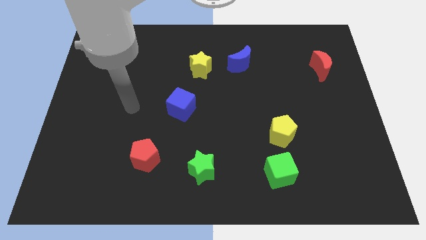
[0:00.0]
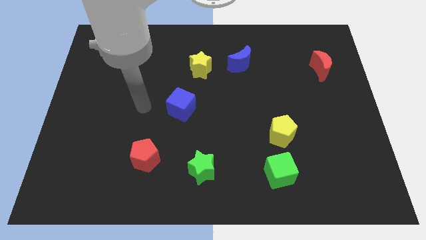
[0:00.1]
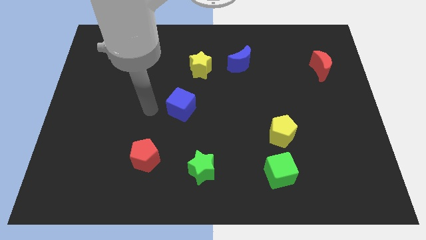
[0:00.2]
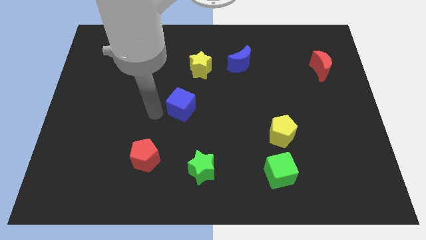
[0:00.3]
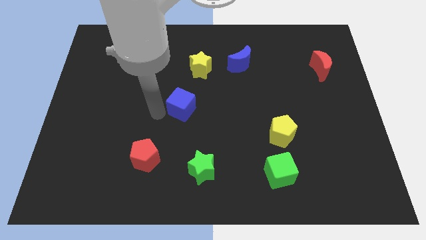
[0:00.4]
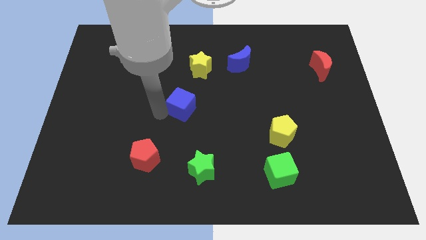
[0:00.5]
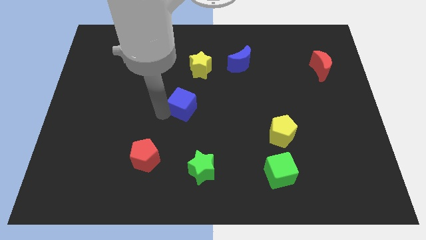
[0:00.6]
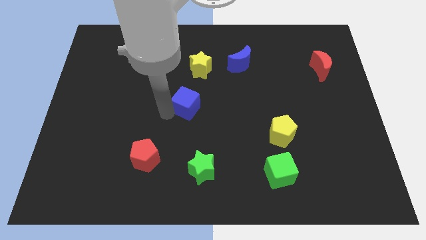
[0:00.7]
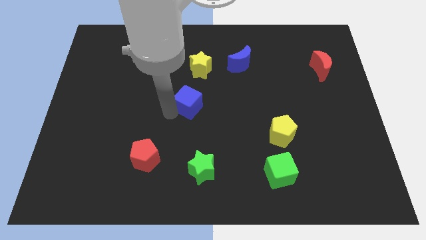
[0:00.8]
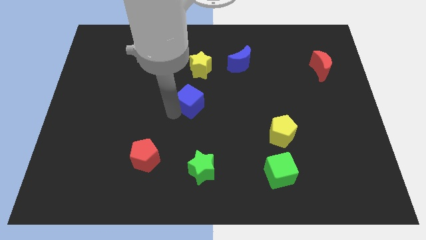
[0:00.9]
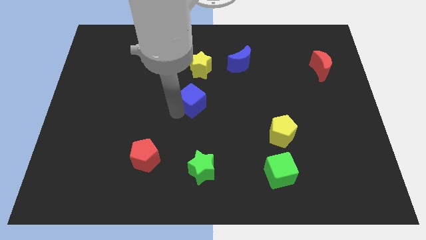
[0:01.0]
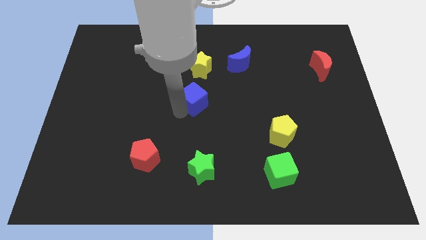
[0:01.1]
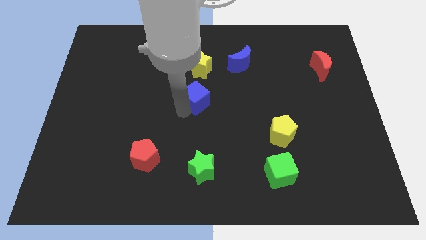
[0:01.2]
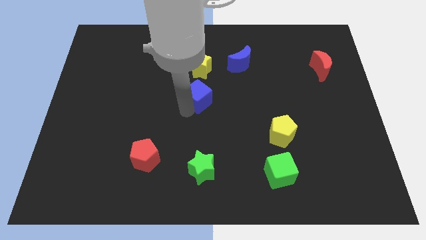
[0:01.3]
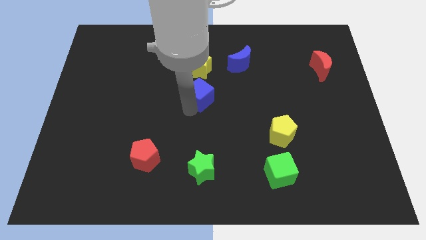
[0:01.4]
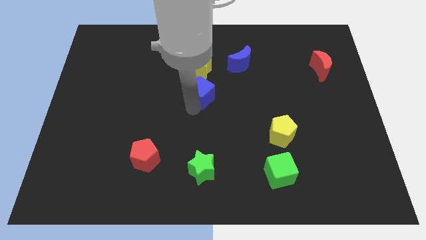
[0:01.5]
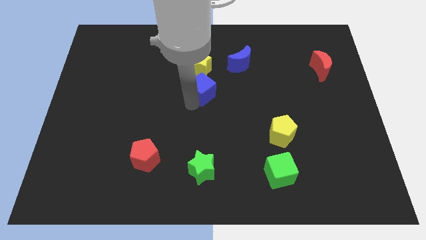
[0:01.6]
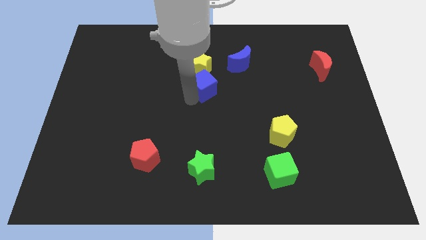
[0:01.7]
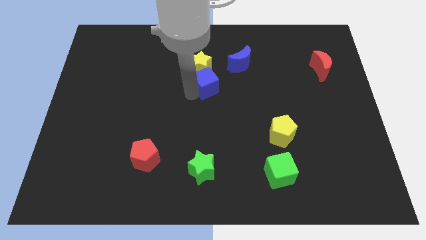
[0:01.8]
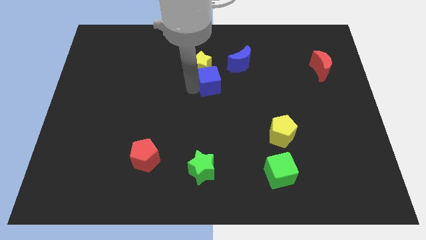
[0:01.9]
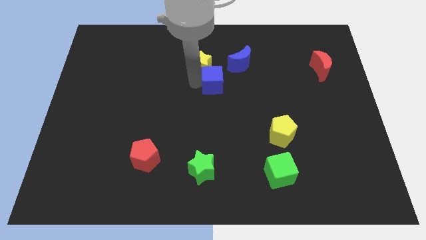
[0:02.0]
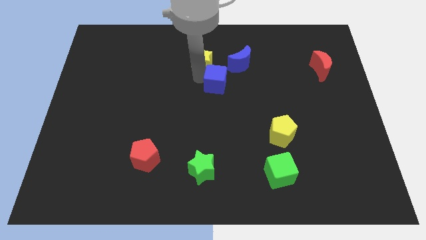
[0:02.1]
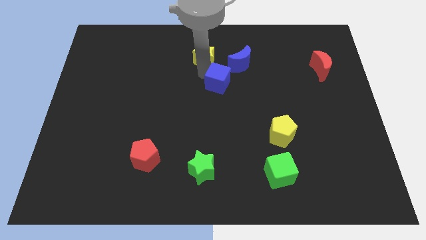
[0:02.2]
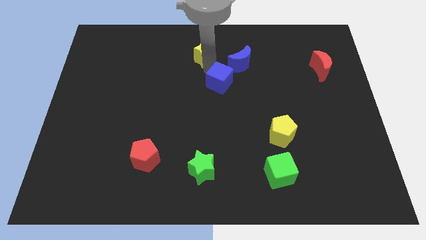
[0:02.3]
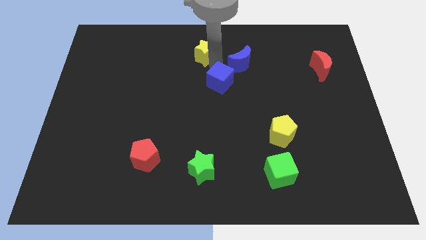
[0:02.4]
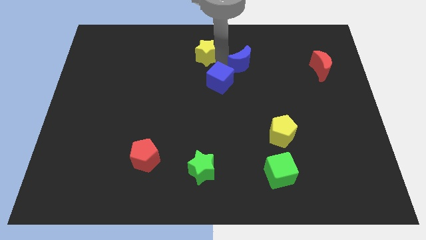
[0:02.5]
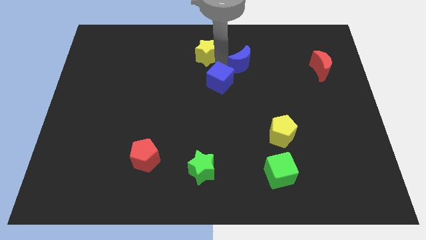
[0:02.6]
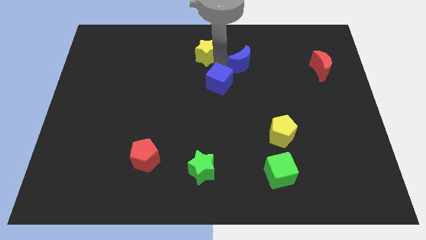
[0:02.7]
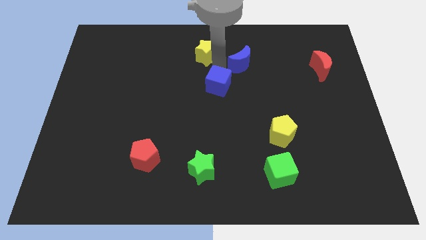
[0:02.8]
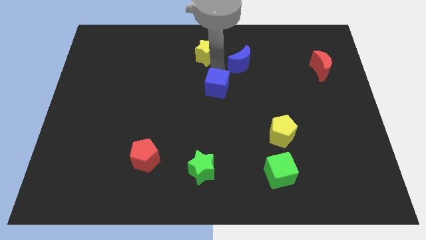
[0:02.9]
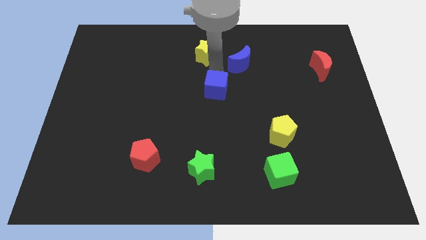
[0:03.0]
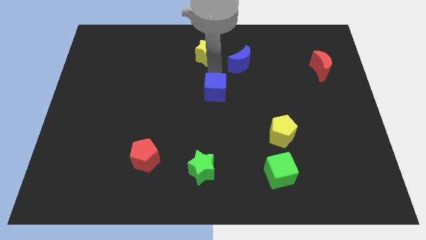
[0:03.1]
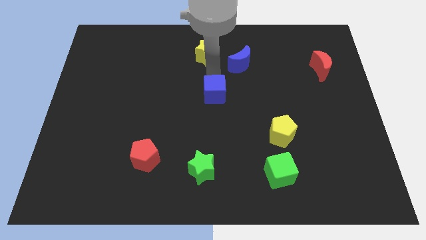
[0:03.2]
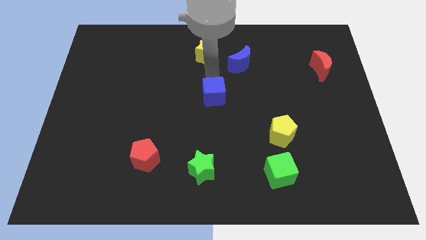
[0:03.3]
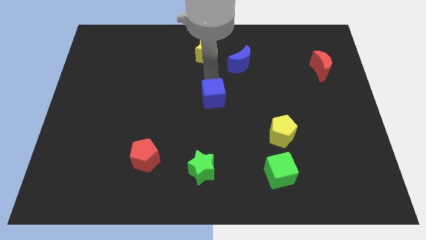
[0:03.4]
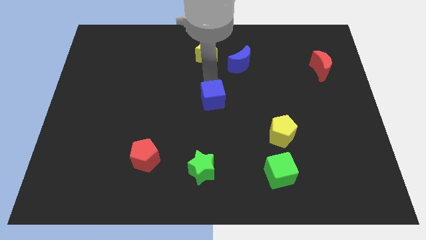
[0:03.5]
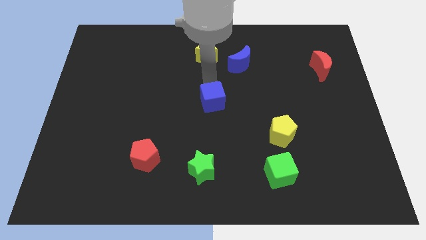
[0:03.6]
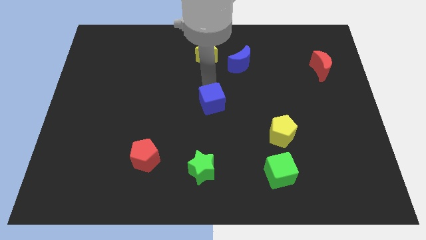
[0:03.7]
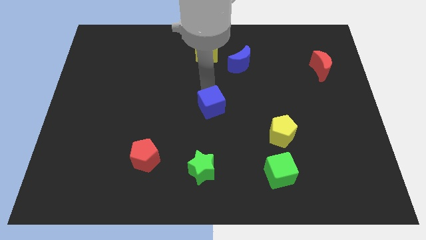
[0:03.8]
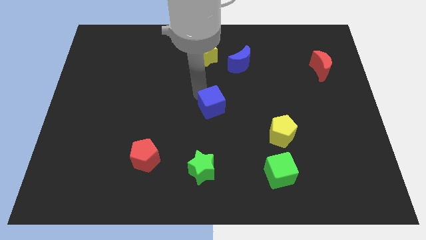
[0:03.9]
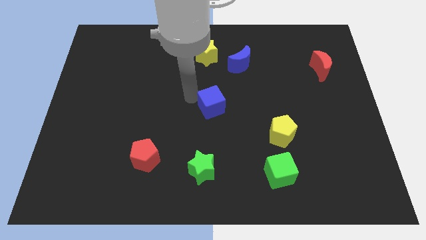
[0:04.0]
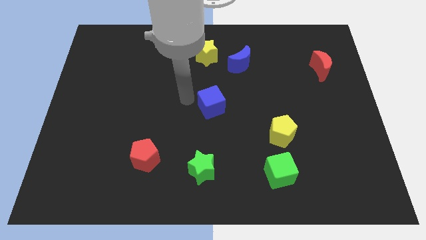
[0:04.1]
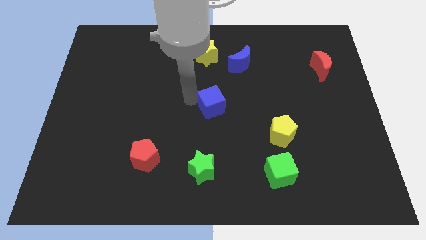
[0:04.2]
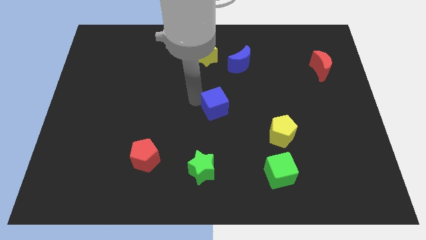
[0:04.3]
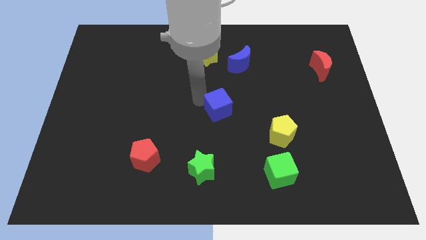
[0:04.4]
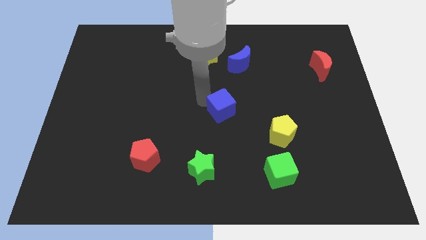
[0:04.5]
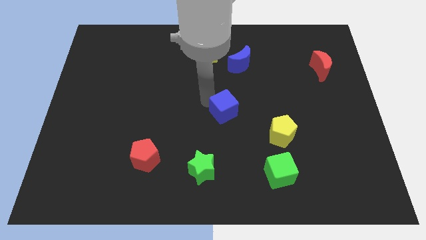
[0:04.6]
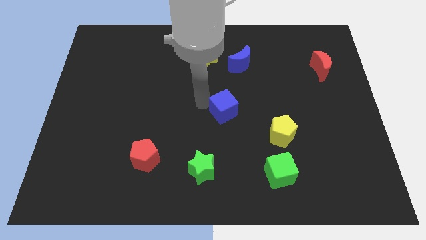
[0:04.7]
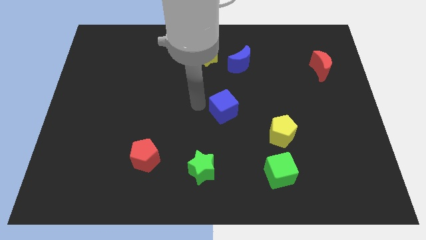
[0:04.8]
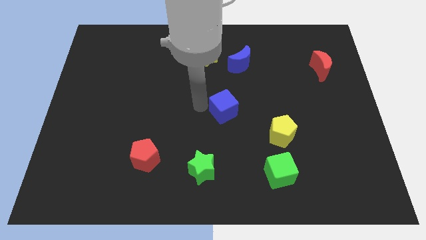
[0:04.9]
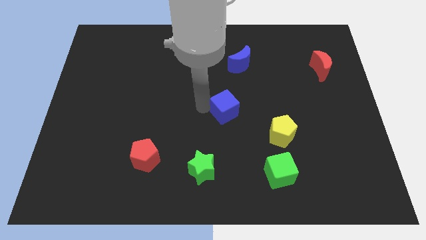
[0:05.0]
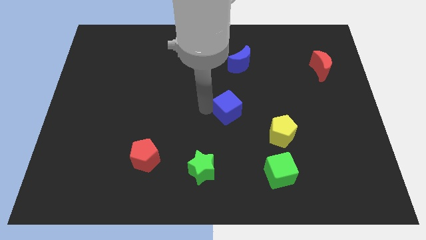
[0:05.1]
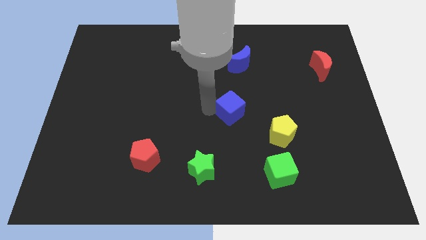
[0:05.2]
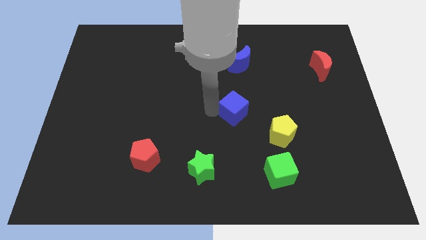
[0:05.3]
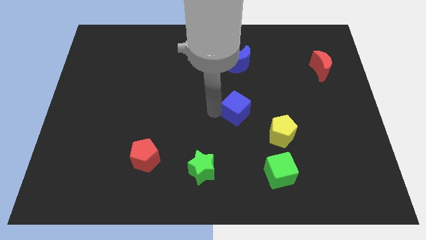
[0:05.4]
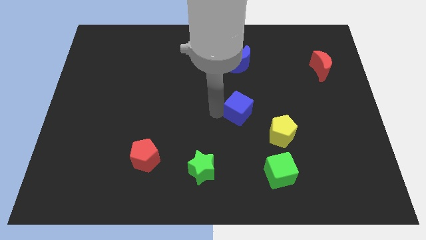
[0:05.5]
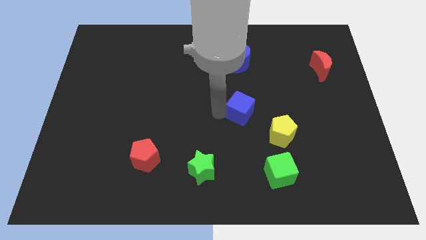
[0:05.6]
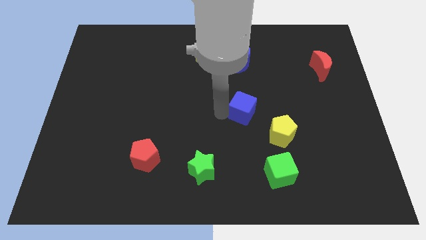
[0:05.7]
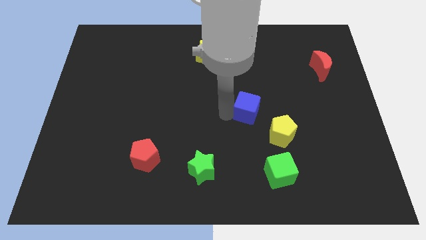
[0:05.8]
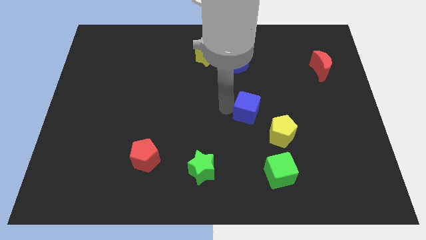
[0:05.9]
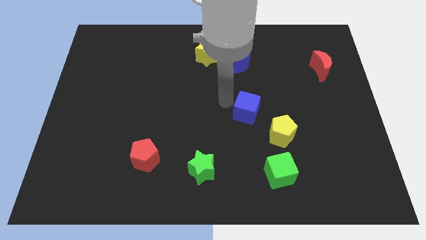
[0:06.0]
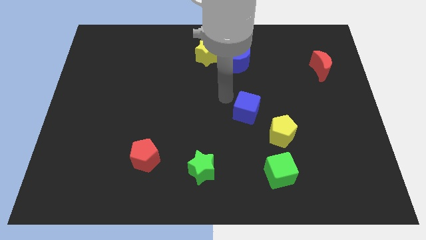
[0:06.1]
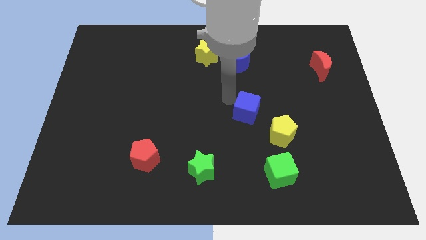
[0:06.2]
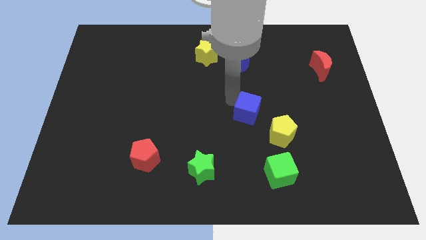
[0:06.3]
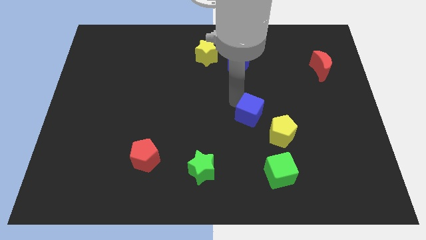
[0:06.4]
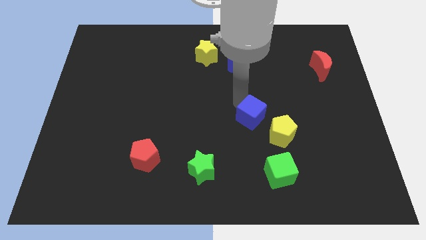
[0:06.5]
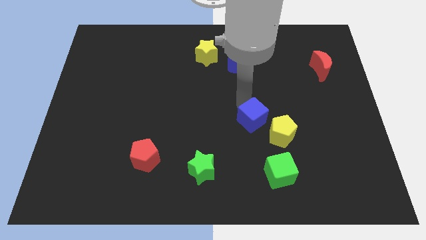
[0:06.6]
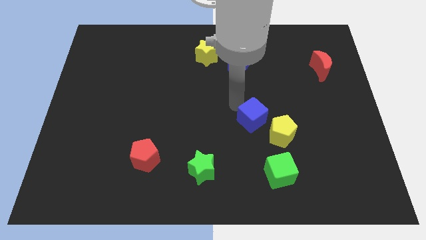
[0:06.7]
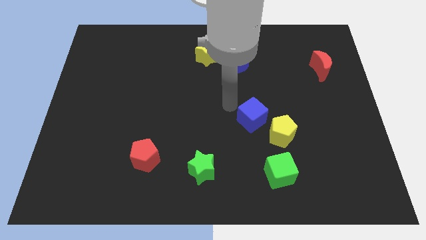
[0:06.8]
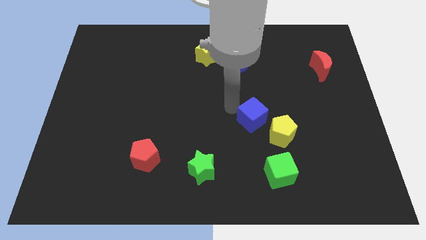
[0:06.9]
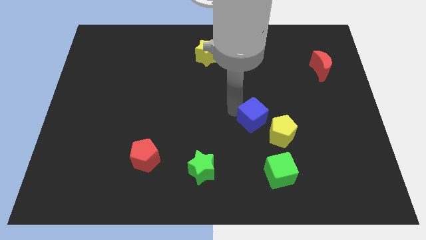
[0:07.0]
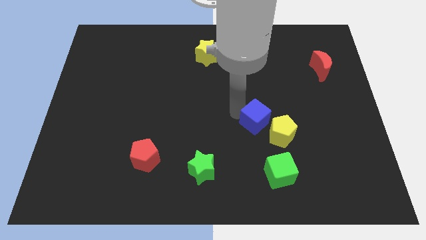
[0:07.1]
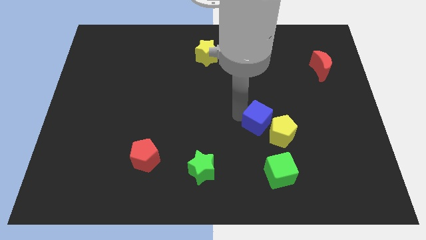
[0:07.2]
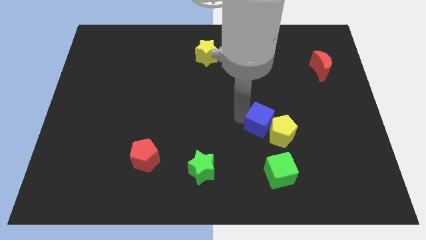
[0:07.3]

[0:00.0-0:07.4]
put the blue cube next to the yellow pentagon
